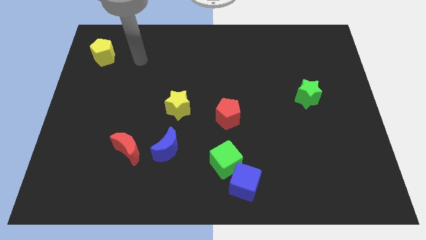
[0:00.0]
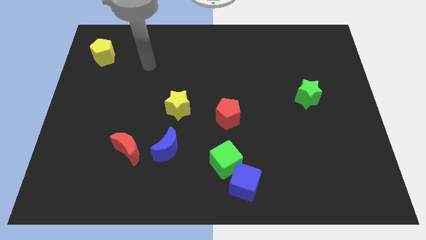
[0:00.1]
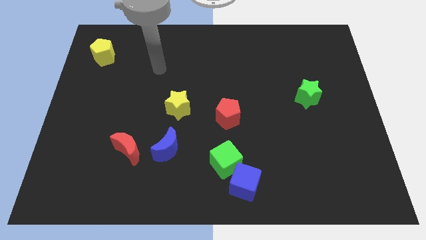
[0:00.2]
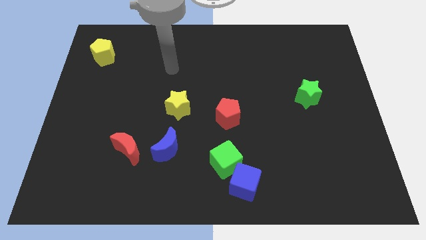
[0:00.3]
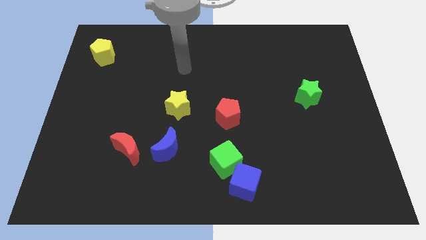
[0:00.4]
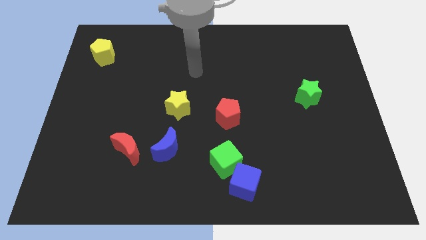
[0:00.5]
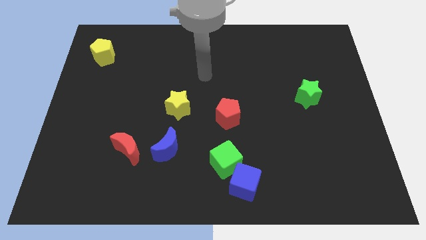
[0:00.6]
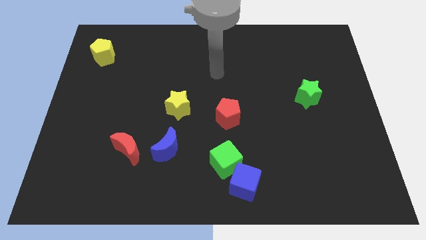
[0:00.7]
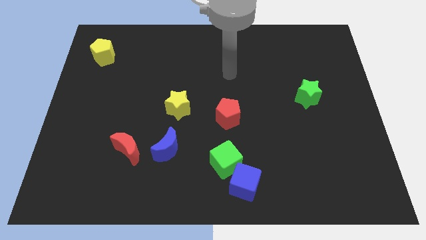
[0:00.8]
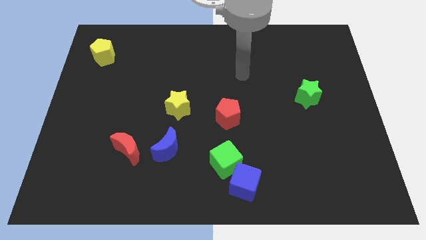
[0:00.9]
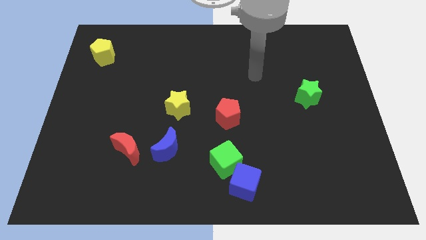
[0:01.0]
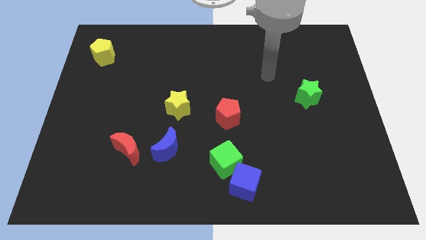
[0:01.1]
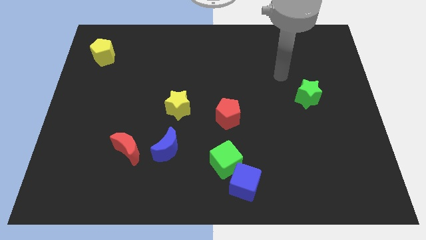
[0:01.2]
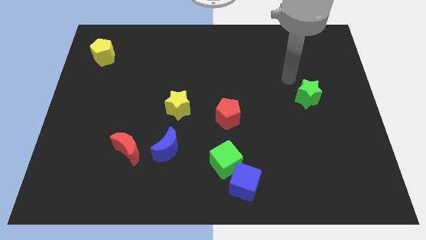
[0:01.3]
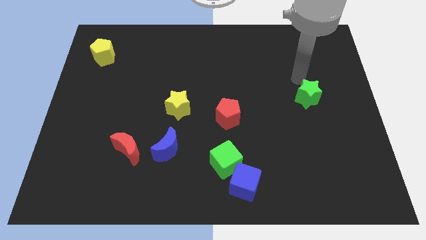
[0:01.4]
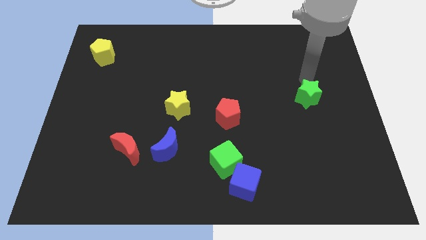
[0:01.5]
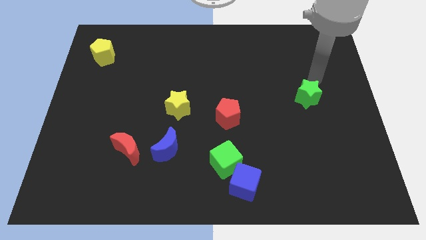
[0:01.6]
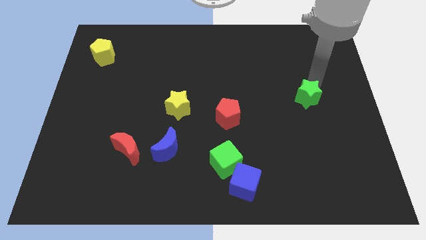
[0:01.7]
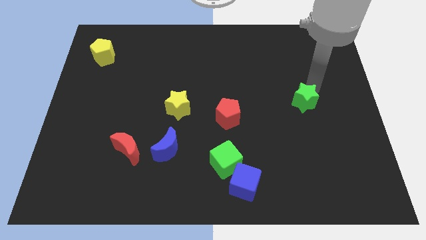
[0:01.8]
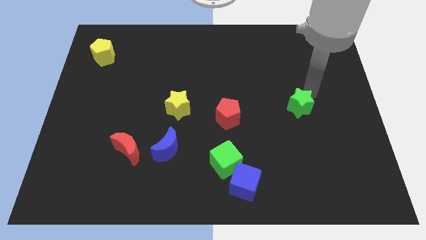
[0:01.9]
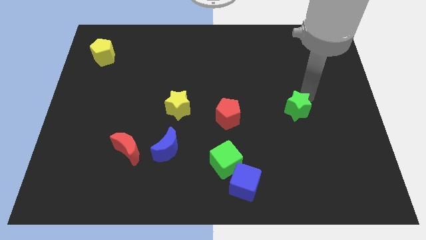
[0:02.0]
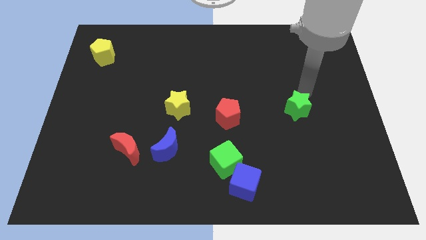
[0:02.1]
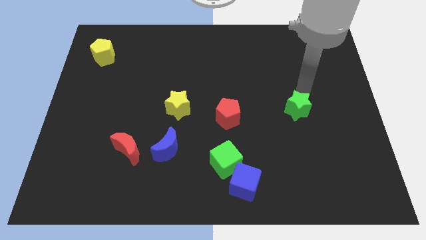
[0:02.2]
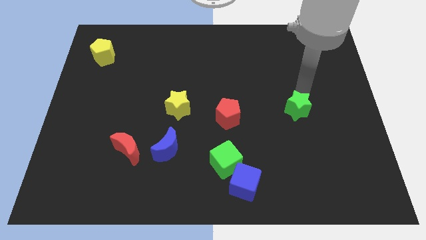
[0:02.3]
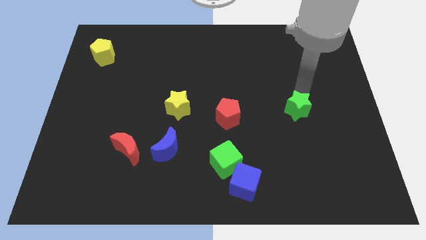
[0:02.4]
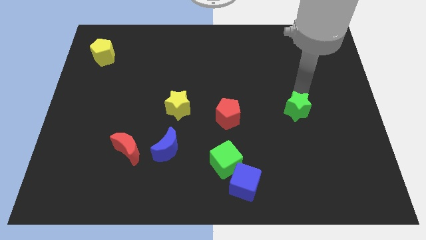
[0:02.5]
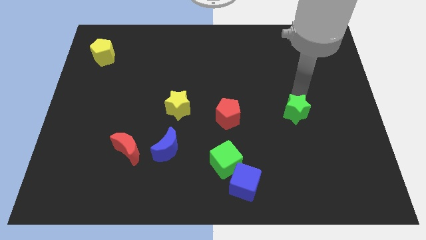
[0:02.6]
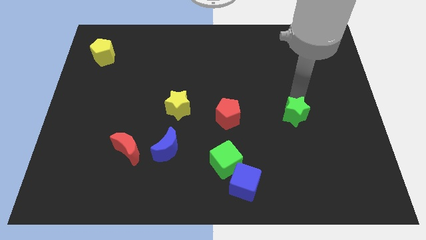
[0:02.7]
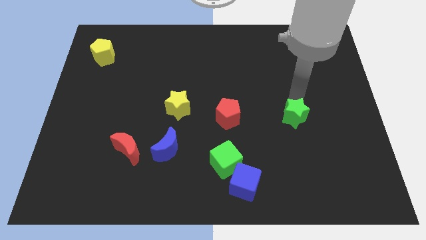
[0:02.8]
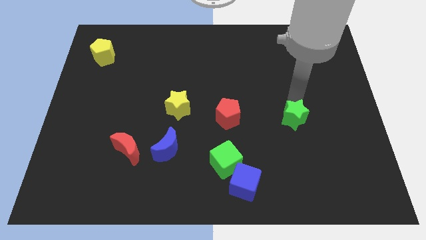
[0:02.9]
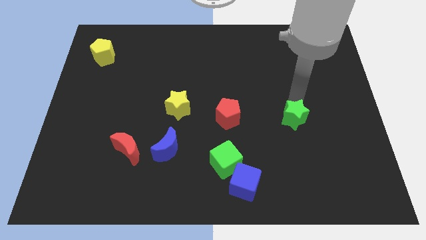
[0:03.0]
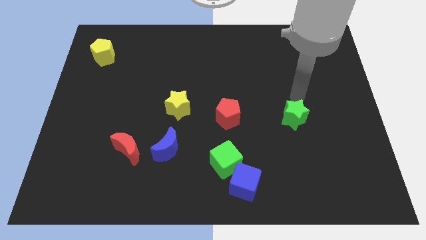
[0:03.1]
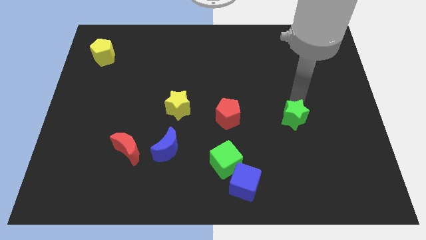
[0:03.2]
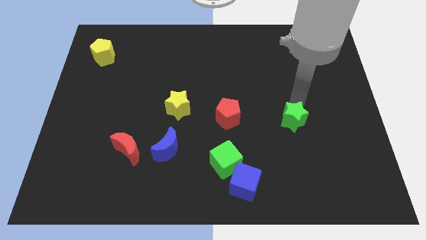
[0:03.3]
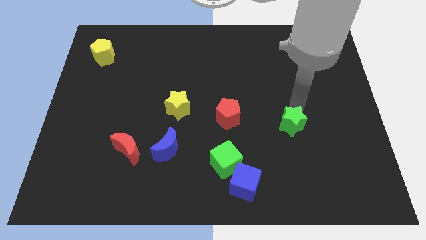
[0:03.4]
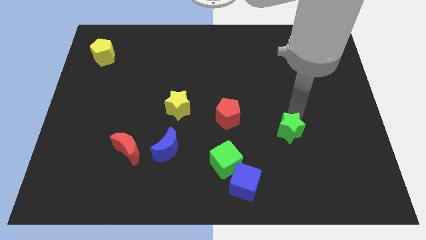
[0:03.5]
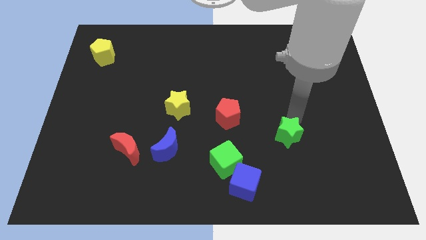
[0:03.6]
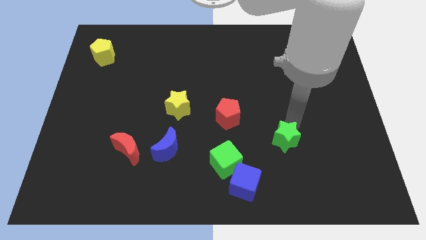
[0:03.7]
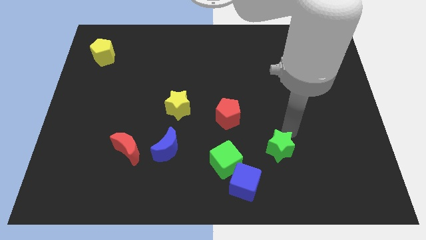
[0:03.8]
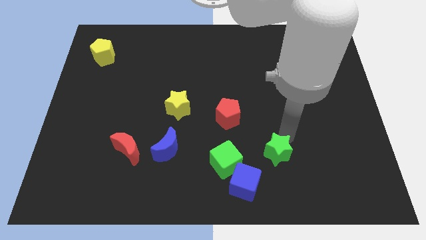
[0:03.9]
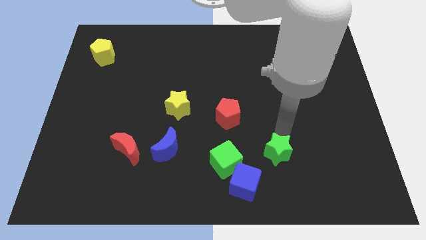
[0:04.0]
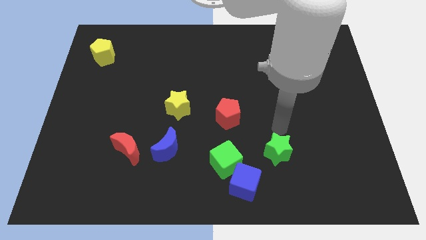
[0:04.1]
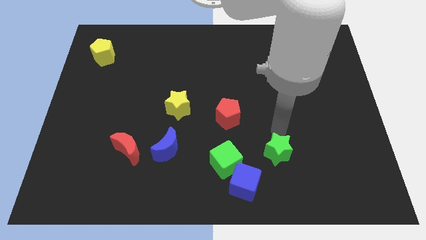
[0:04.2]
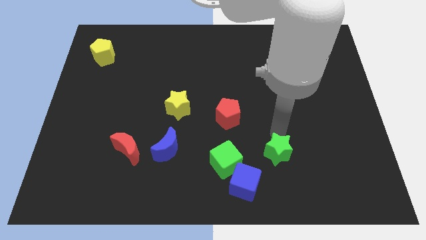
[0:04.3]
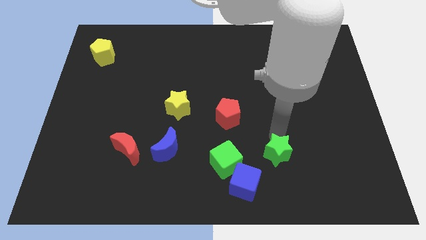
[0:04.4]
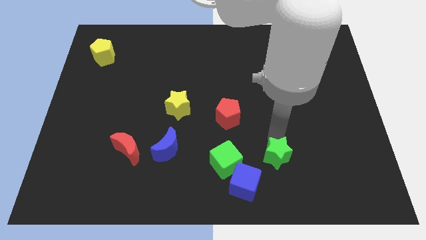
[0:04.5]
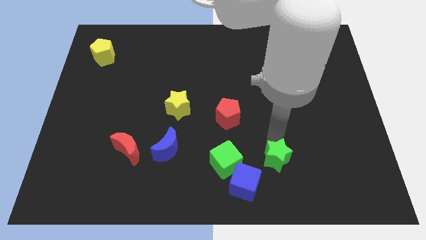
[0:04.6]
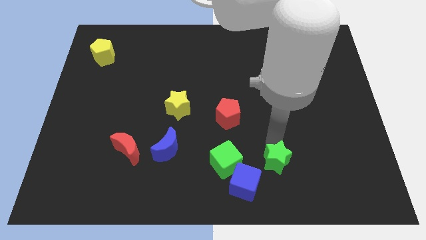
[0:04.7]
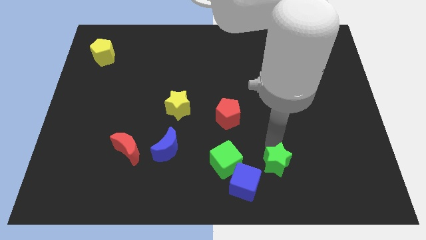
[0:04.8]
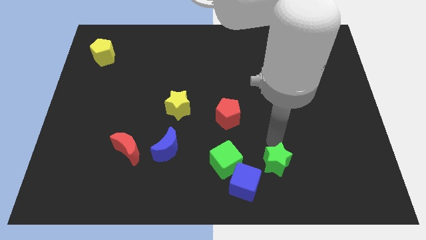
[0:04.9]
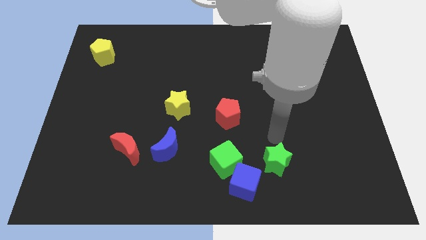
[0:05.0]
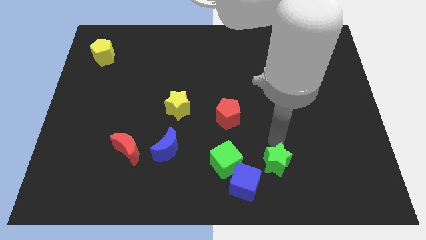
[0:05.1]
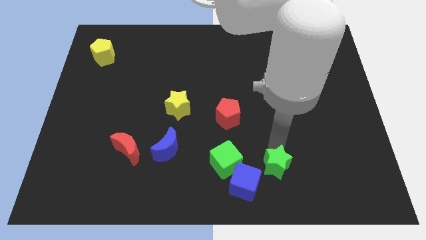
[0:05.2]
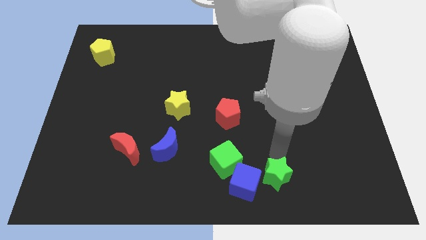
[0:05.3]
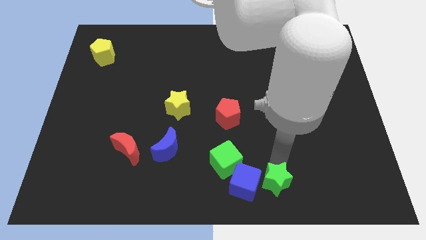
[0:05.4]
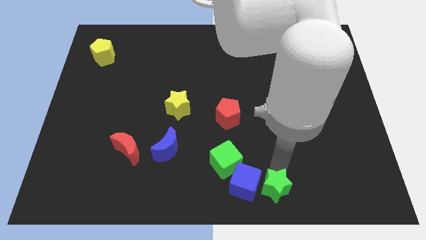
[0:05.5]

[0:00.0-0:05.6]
put the green star to the bottom

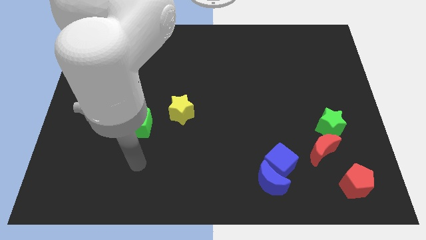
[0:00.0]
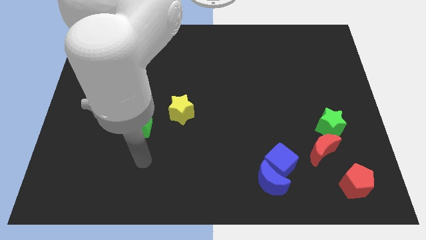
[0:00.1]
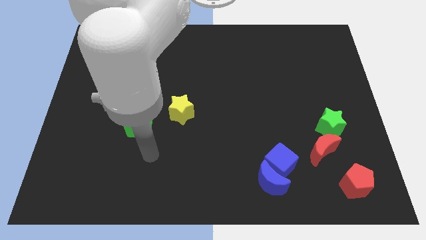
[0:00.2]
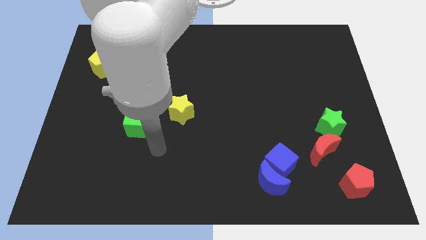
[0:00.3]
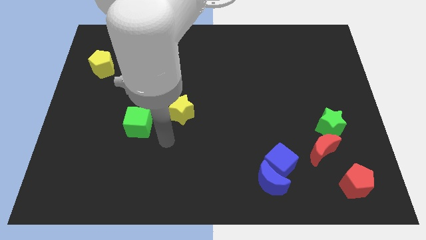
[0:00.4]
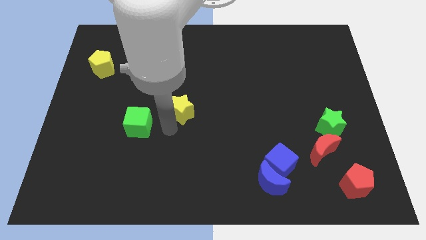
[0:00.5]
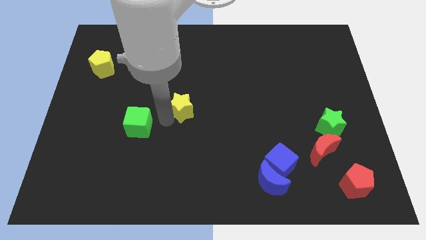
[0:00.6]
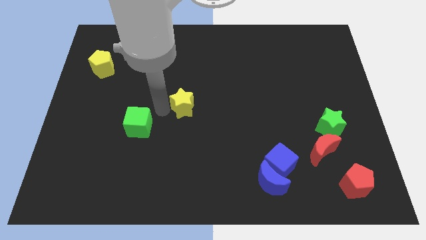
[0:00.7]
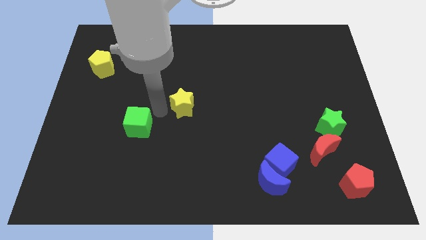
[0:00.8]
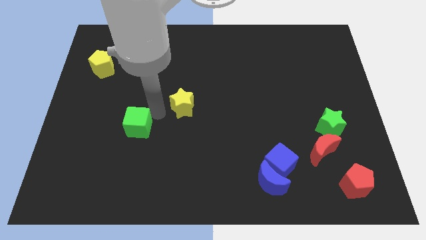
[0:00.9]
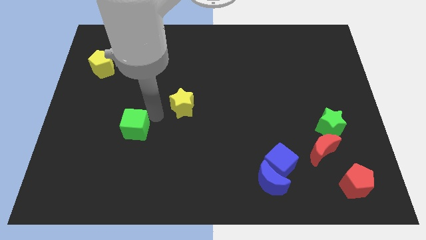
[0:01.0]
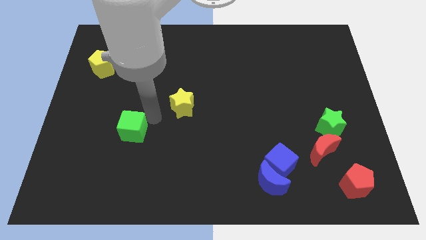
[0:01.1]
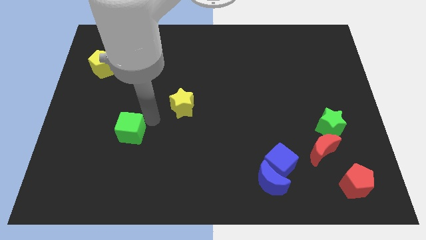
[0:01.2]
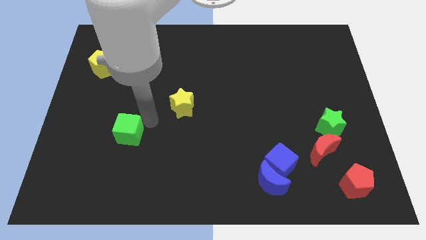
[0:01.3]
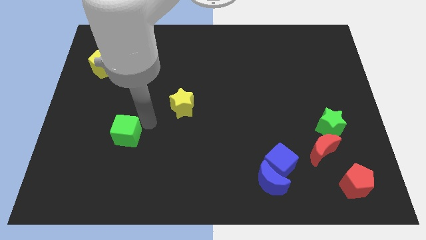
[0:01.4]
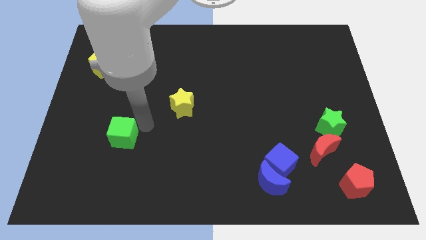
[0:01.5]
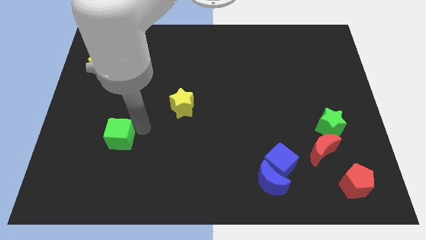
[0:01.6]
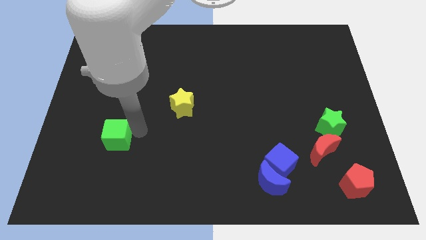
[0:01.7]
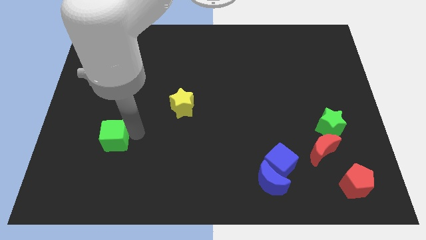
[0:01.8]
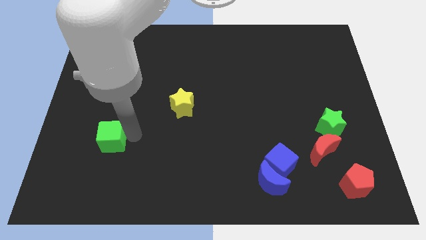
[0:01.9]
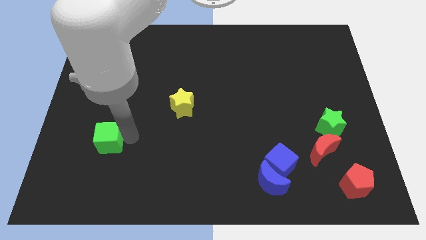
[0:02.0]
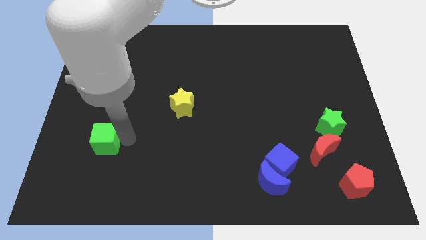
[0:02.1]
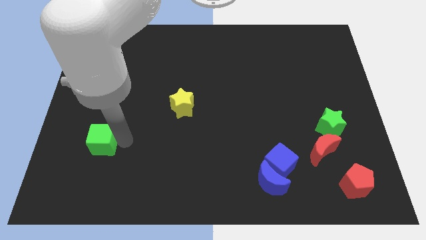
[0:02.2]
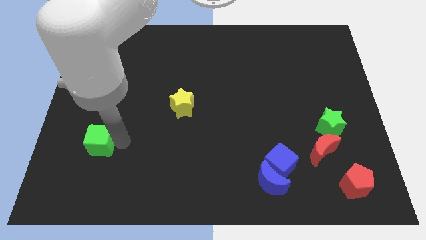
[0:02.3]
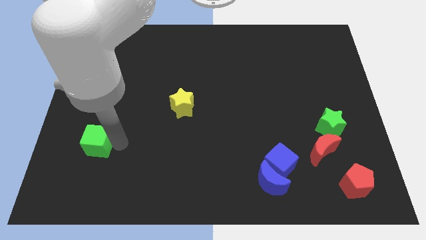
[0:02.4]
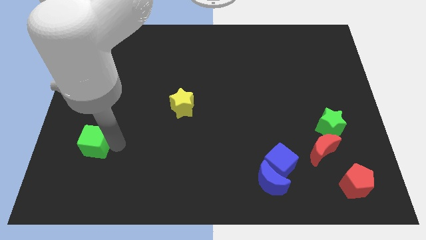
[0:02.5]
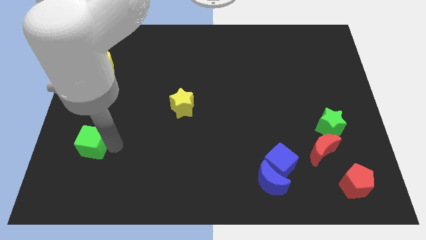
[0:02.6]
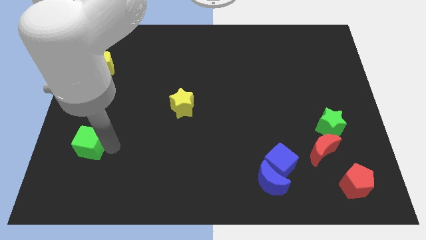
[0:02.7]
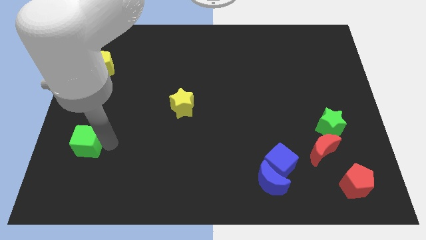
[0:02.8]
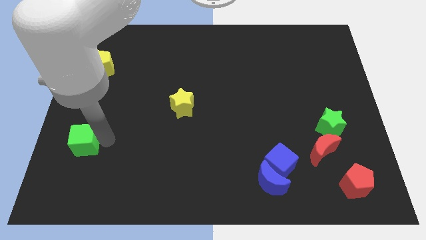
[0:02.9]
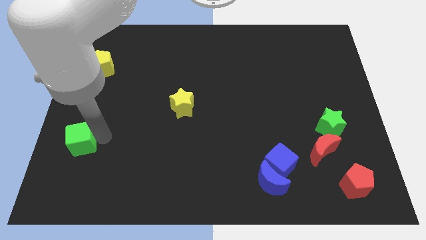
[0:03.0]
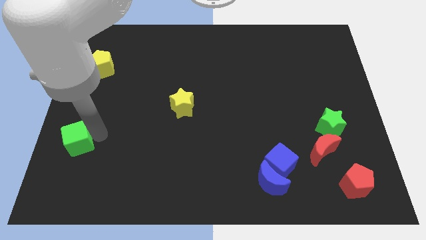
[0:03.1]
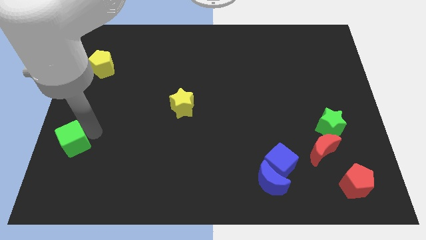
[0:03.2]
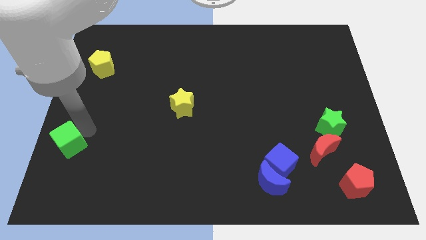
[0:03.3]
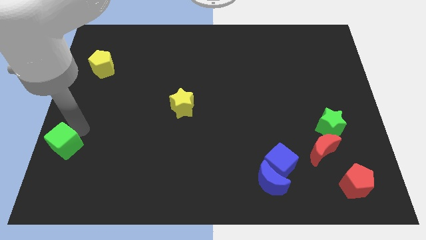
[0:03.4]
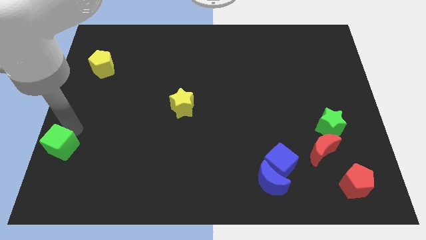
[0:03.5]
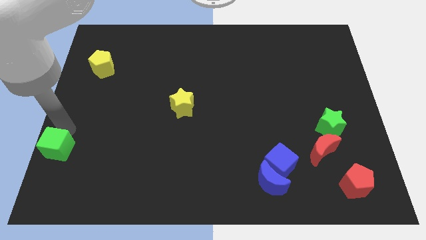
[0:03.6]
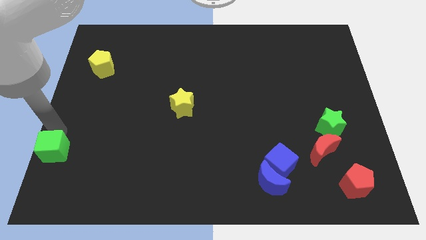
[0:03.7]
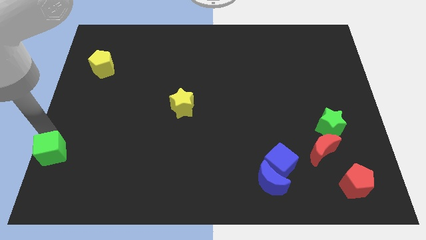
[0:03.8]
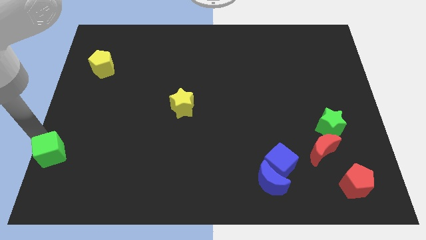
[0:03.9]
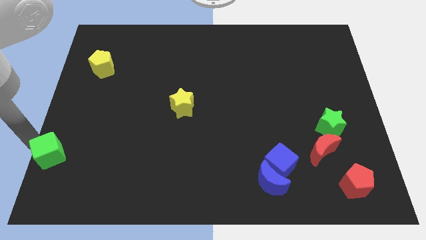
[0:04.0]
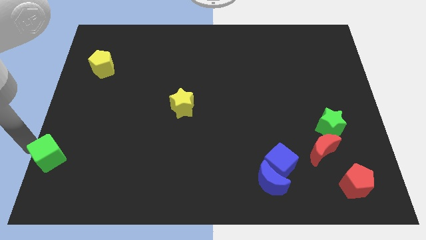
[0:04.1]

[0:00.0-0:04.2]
slide the green cube to the bottom left
